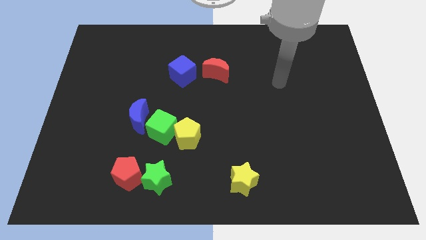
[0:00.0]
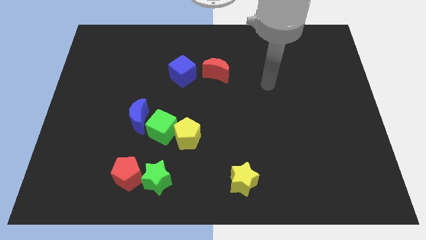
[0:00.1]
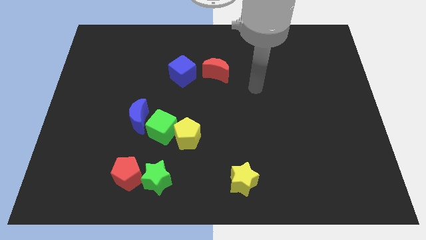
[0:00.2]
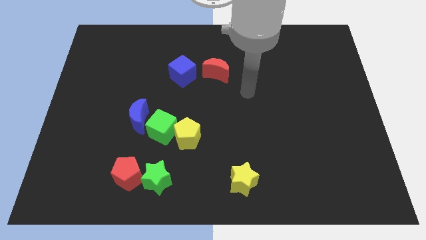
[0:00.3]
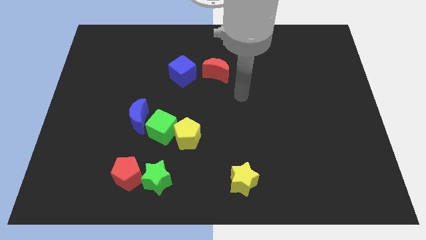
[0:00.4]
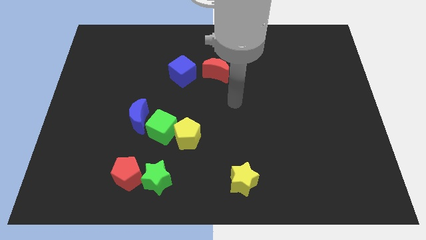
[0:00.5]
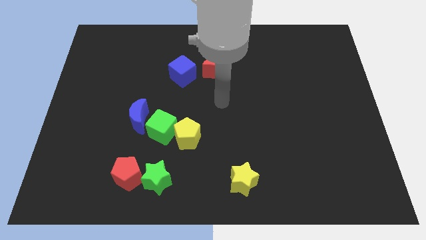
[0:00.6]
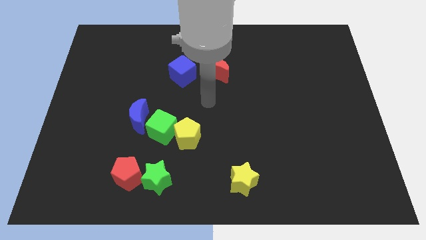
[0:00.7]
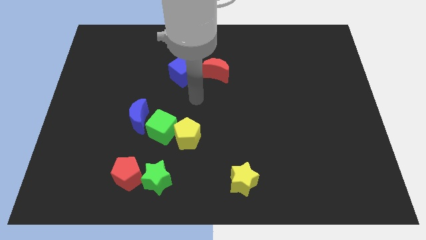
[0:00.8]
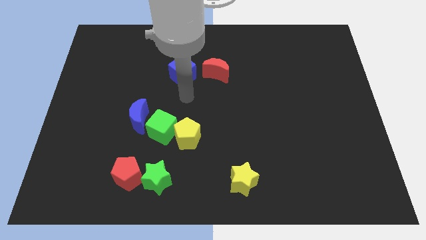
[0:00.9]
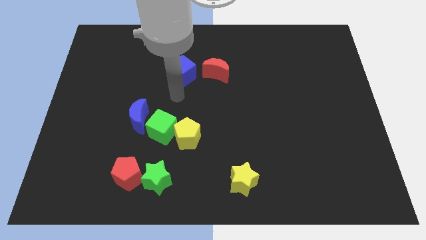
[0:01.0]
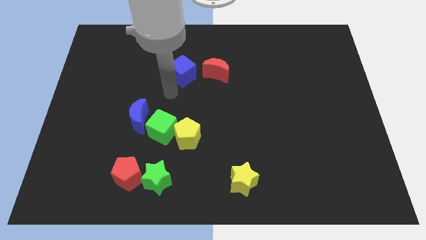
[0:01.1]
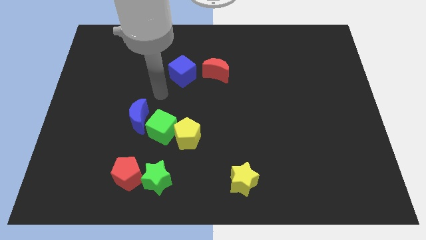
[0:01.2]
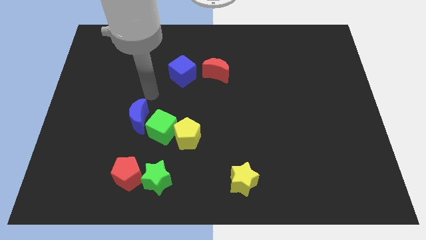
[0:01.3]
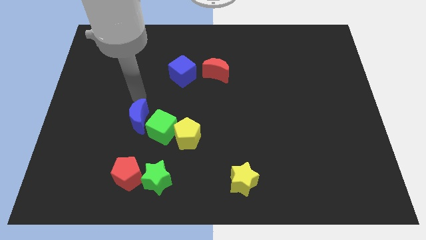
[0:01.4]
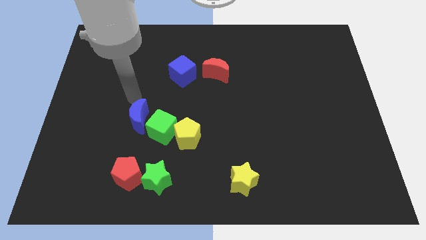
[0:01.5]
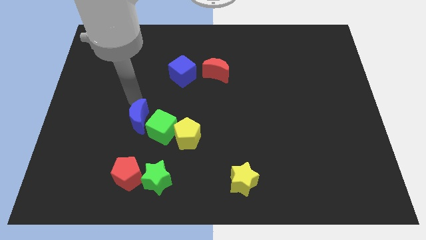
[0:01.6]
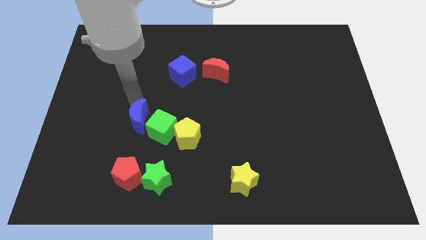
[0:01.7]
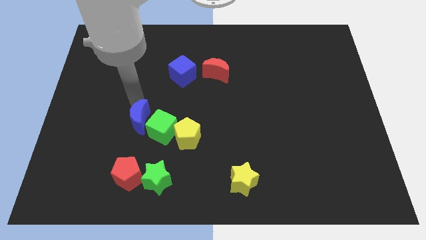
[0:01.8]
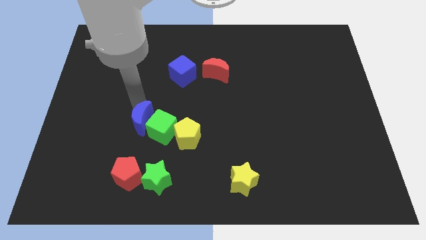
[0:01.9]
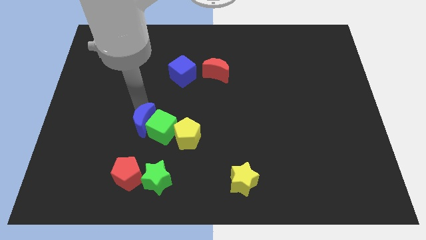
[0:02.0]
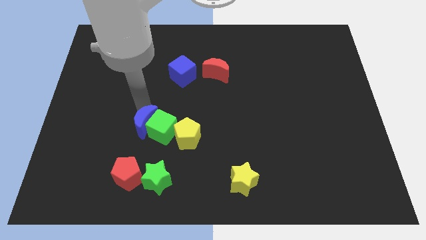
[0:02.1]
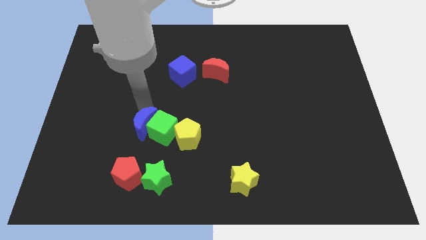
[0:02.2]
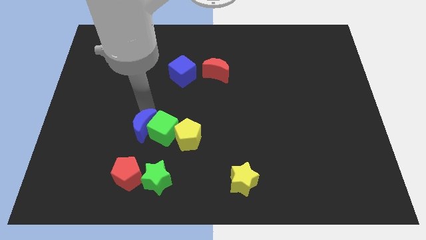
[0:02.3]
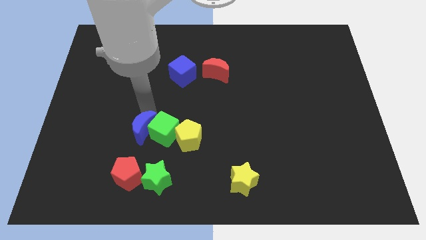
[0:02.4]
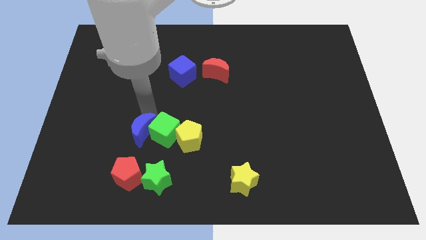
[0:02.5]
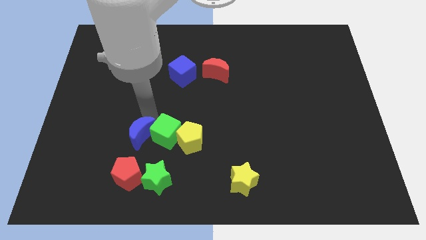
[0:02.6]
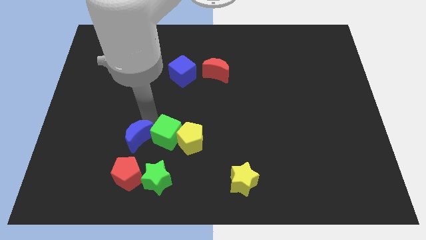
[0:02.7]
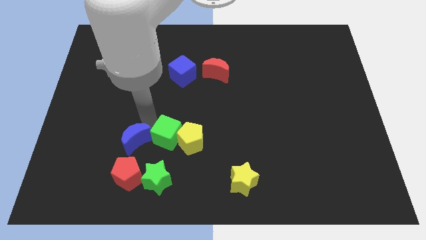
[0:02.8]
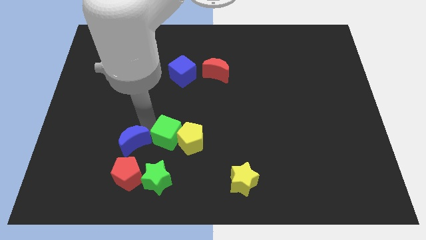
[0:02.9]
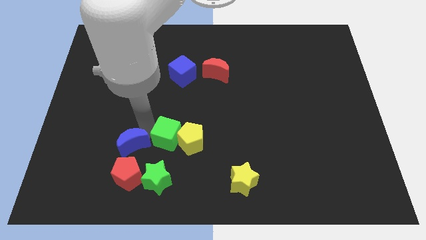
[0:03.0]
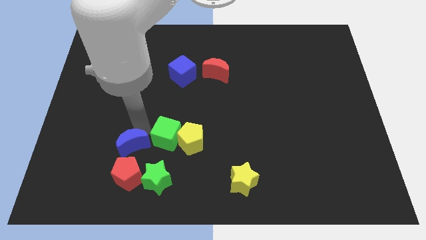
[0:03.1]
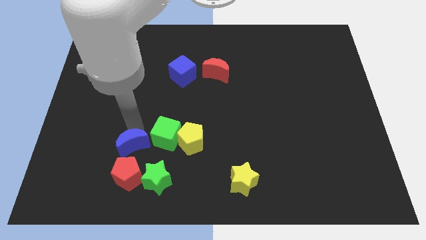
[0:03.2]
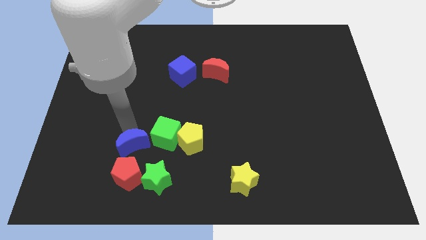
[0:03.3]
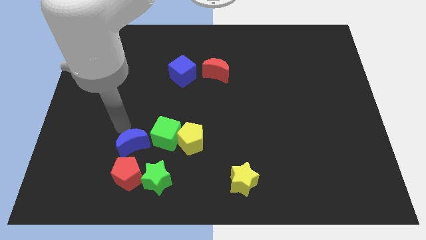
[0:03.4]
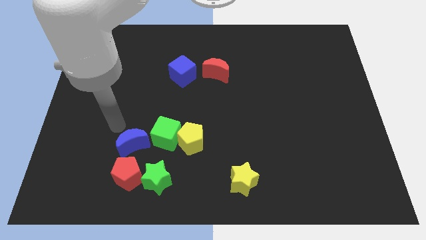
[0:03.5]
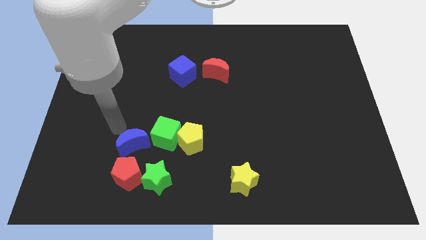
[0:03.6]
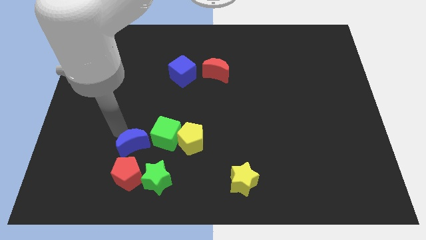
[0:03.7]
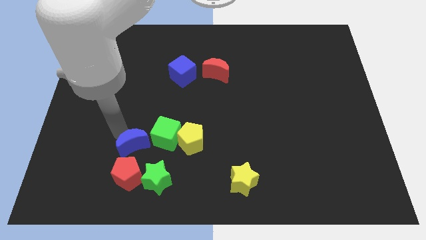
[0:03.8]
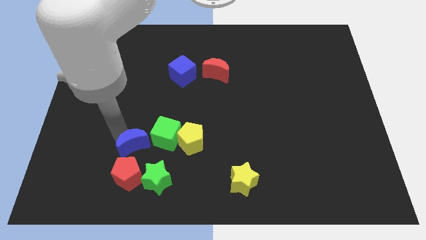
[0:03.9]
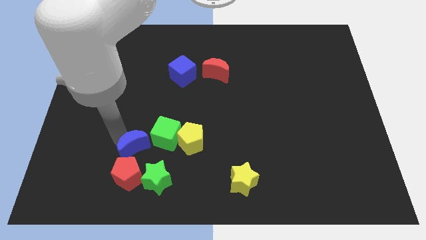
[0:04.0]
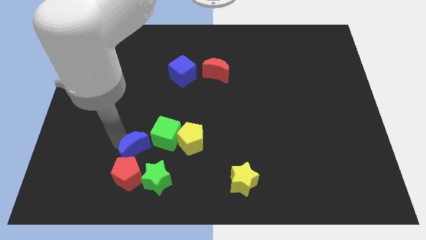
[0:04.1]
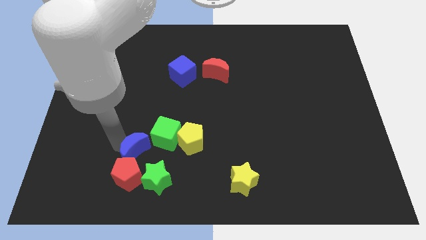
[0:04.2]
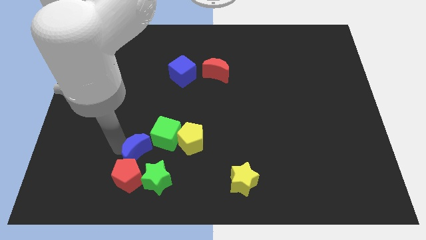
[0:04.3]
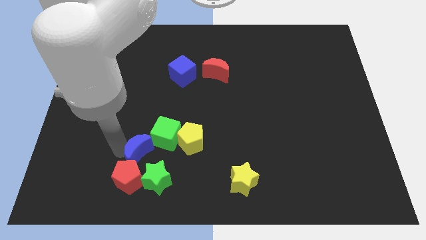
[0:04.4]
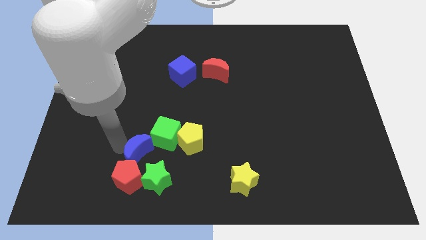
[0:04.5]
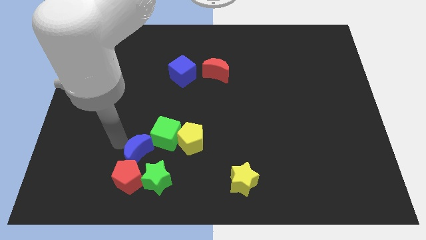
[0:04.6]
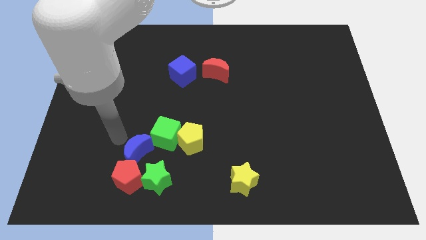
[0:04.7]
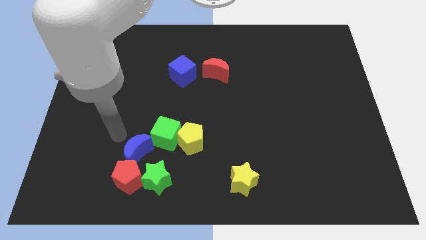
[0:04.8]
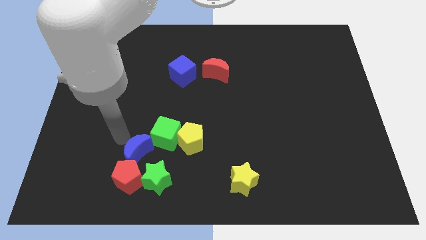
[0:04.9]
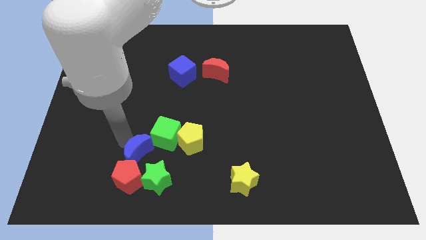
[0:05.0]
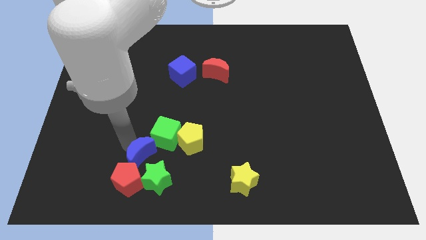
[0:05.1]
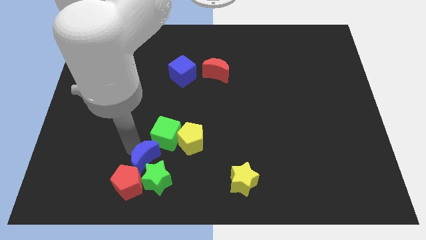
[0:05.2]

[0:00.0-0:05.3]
slide the blue moon to the green star

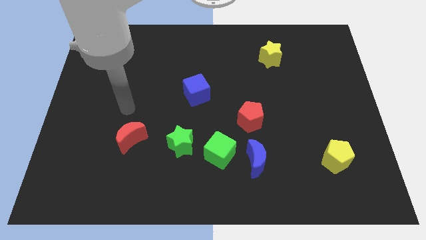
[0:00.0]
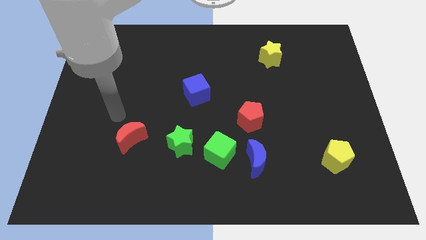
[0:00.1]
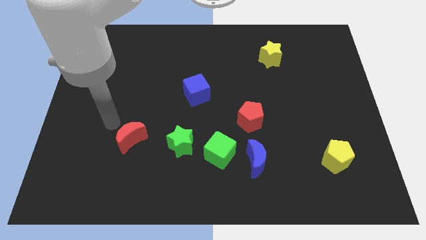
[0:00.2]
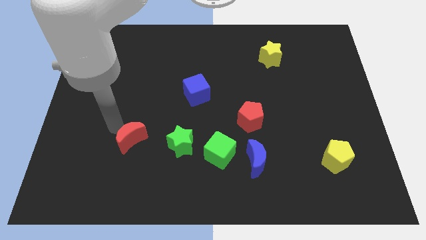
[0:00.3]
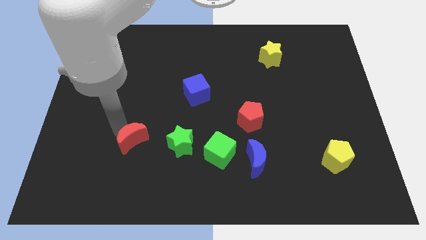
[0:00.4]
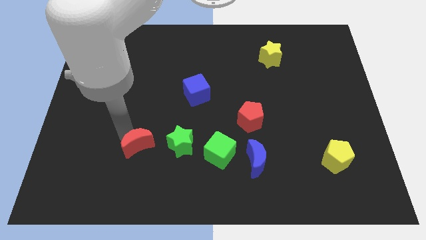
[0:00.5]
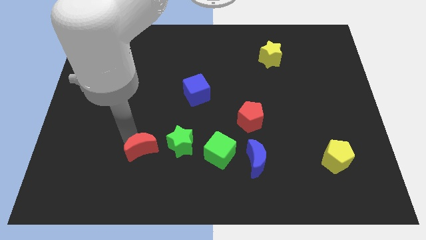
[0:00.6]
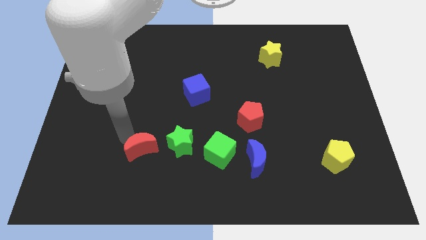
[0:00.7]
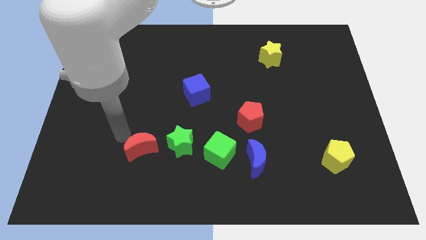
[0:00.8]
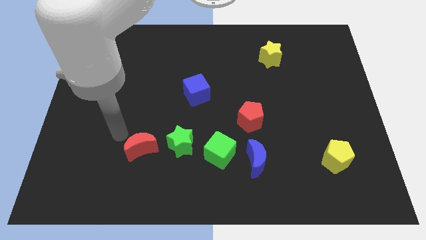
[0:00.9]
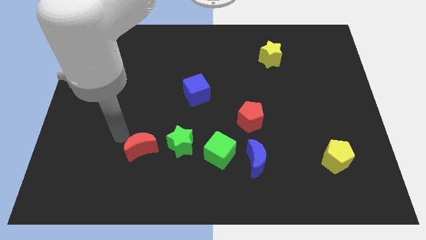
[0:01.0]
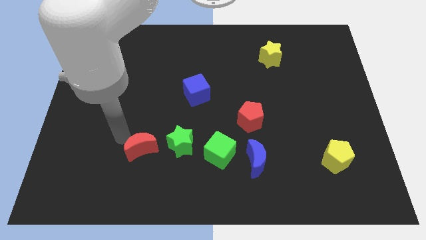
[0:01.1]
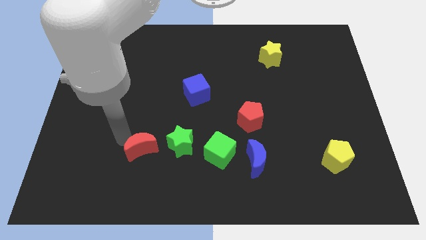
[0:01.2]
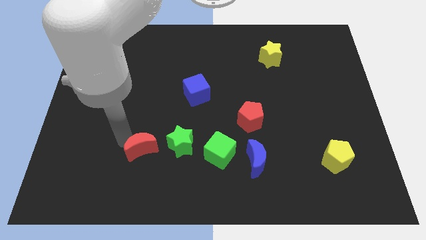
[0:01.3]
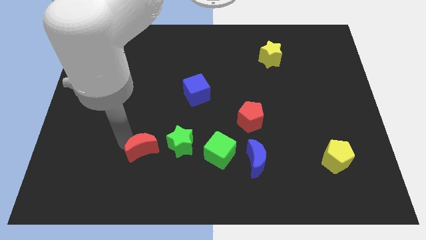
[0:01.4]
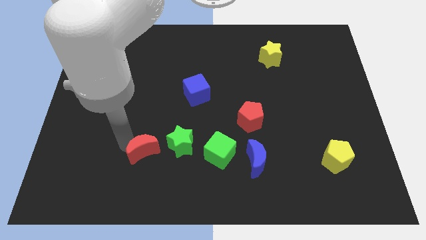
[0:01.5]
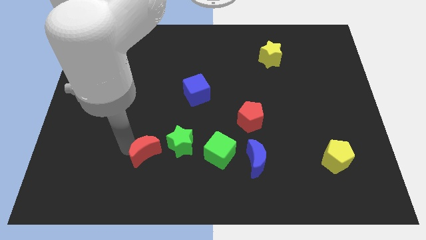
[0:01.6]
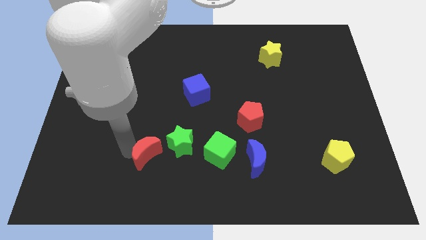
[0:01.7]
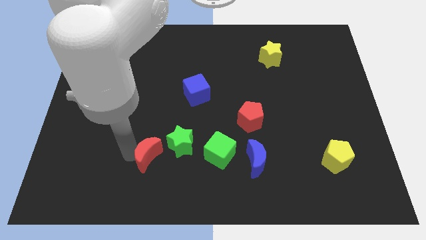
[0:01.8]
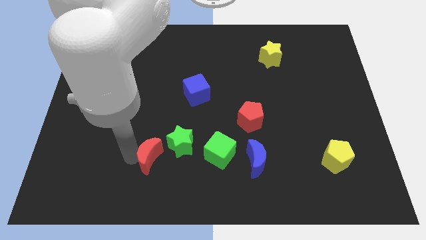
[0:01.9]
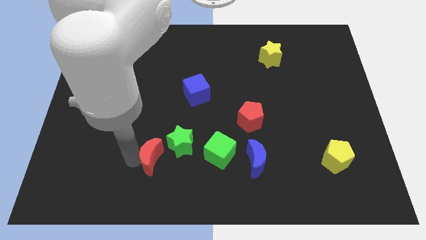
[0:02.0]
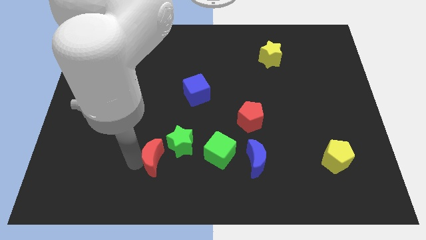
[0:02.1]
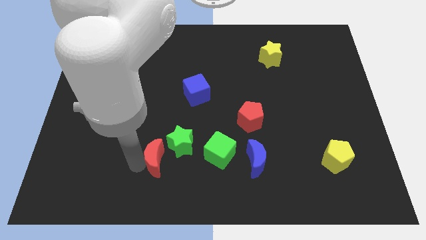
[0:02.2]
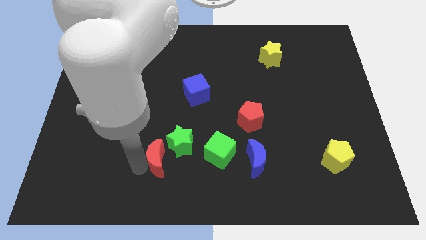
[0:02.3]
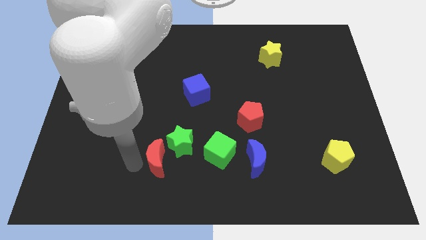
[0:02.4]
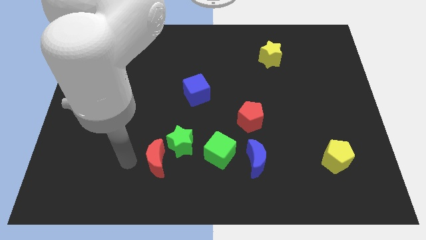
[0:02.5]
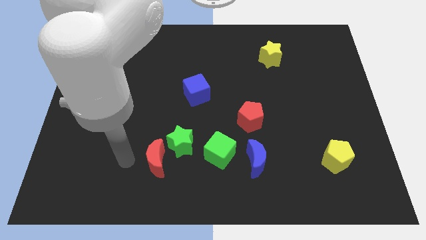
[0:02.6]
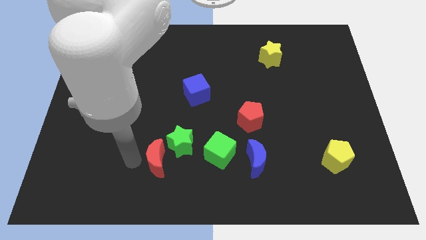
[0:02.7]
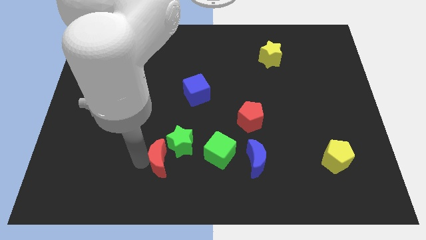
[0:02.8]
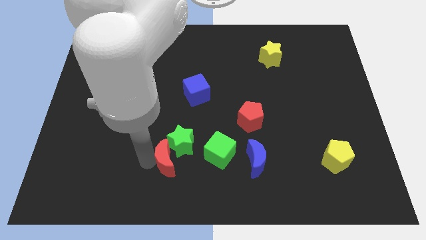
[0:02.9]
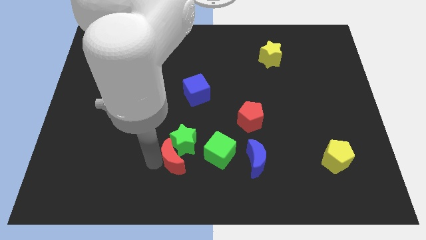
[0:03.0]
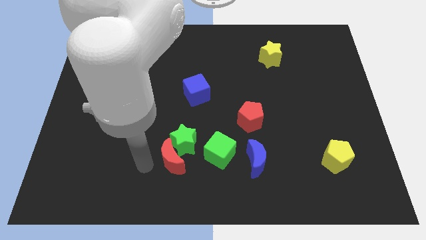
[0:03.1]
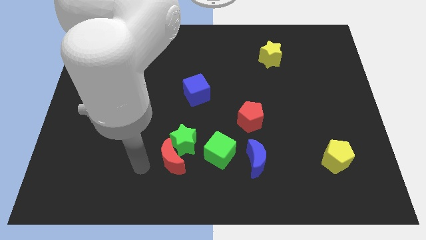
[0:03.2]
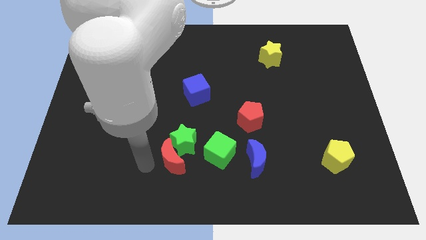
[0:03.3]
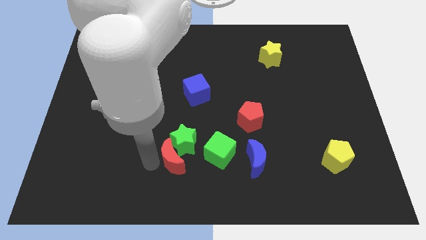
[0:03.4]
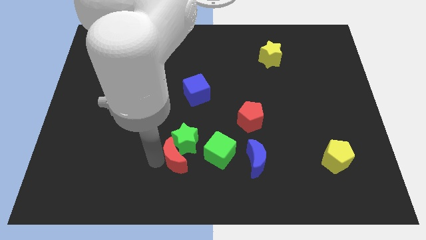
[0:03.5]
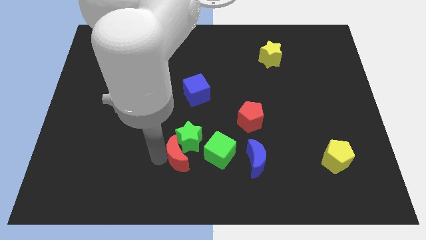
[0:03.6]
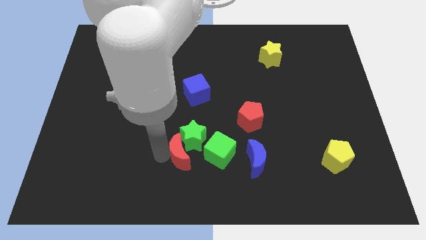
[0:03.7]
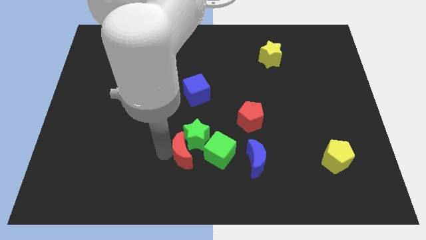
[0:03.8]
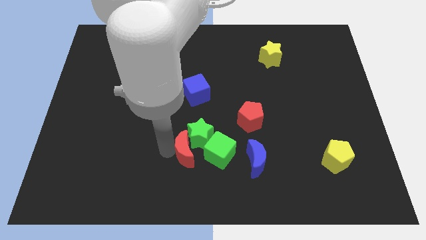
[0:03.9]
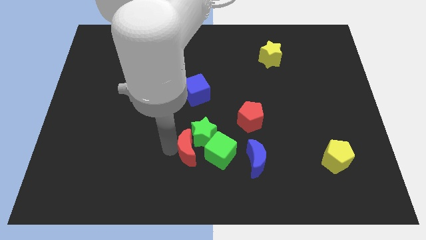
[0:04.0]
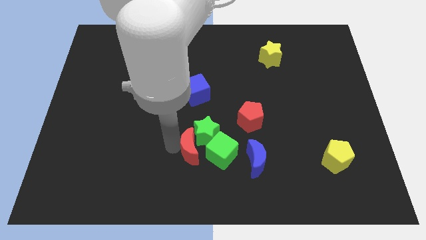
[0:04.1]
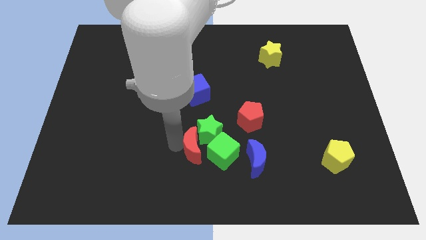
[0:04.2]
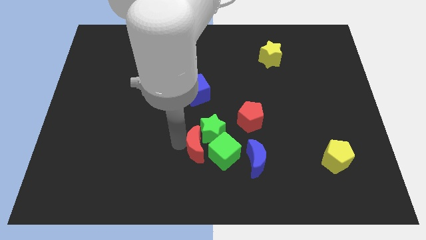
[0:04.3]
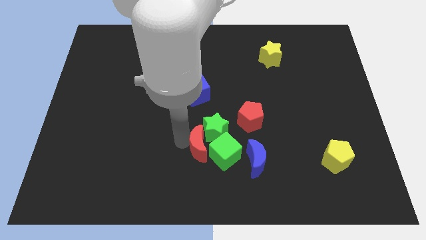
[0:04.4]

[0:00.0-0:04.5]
slide the red moon to the green cube
